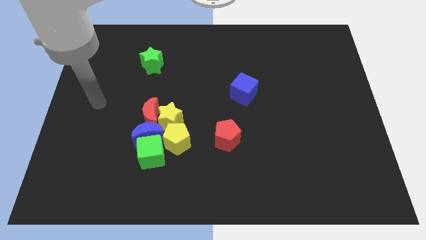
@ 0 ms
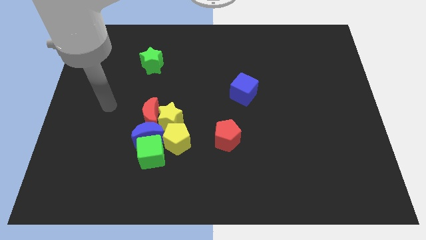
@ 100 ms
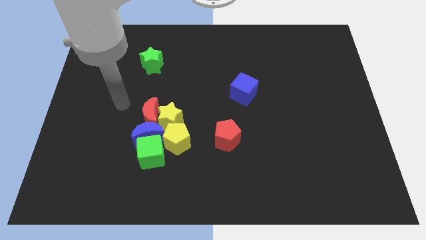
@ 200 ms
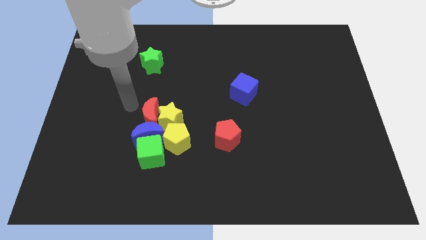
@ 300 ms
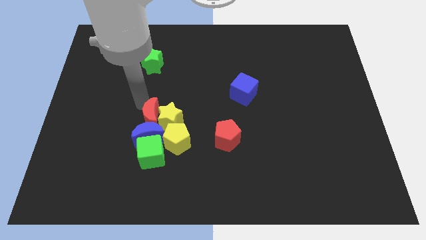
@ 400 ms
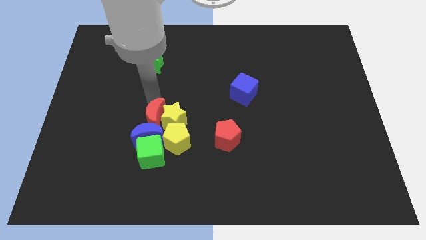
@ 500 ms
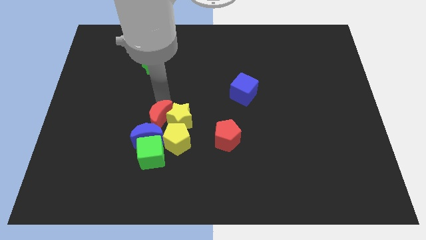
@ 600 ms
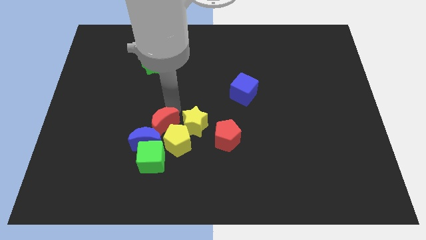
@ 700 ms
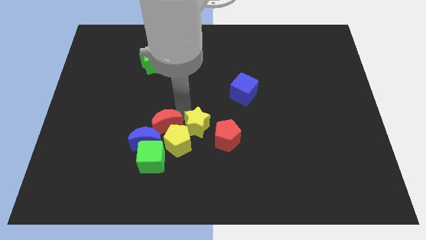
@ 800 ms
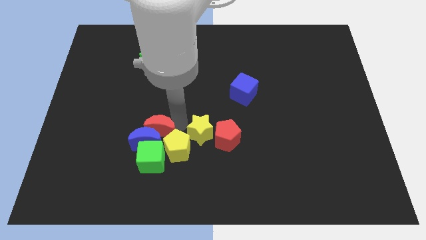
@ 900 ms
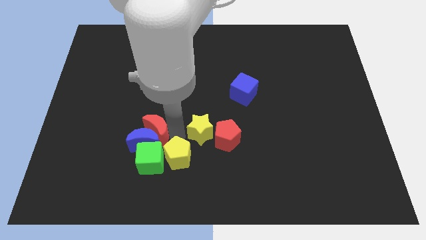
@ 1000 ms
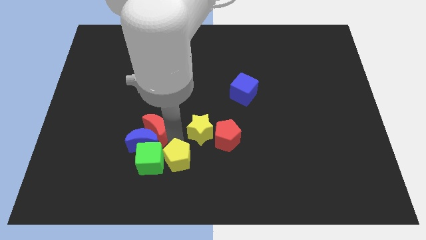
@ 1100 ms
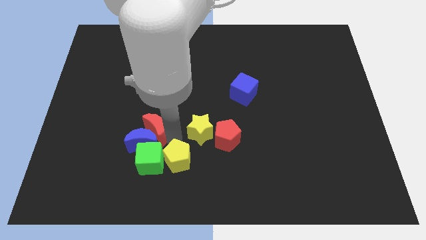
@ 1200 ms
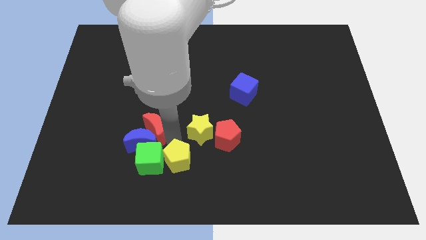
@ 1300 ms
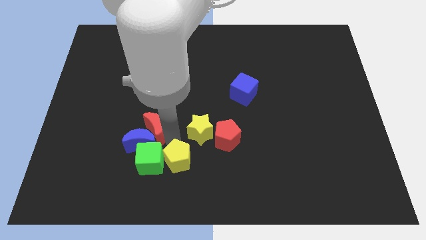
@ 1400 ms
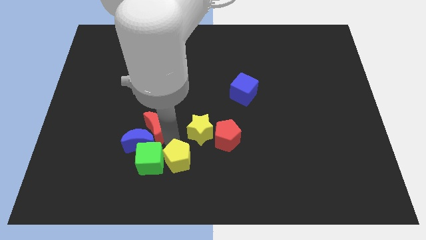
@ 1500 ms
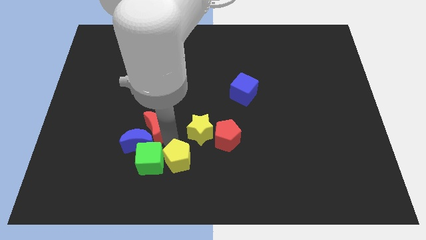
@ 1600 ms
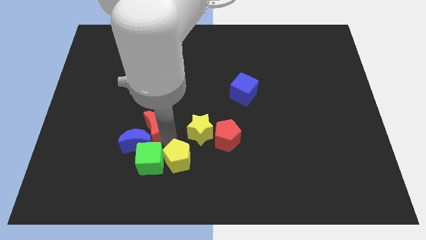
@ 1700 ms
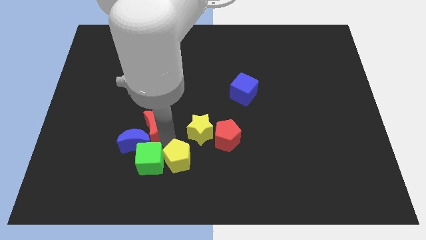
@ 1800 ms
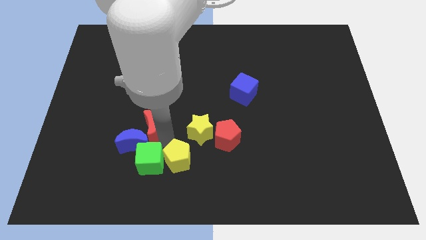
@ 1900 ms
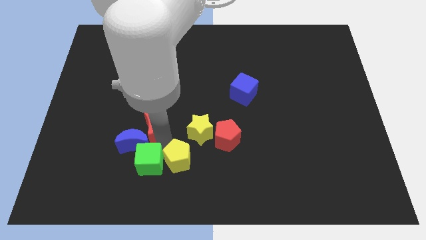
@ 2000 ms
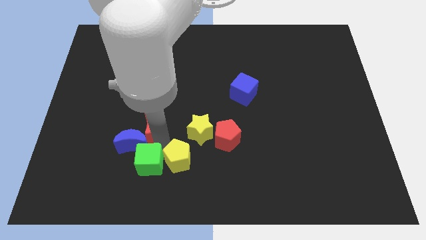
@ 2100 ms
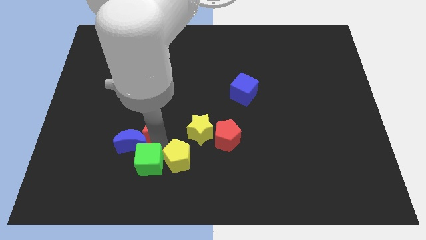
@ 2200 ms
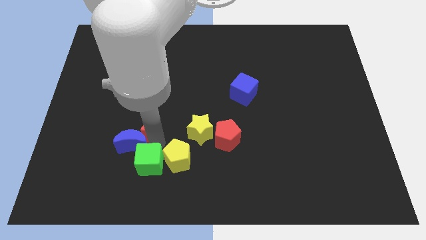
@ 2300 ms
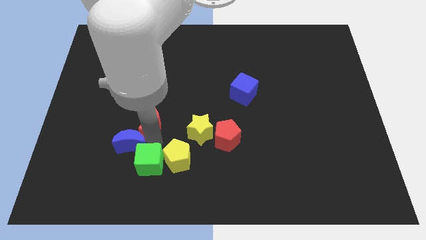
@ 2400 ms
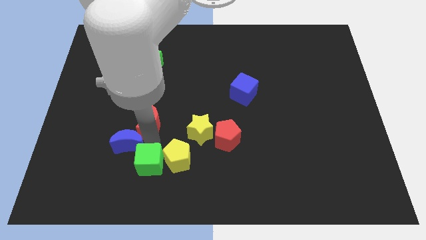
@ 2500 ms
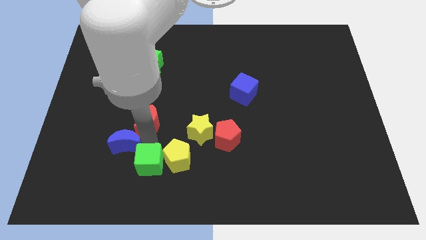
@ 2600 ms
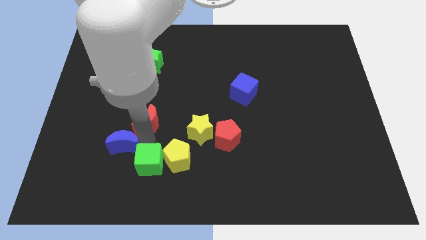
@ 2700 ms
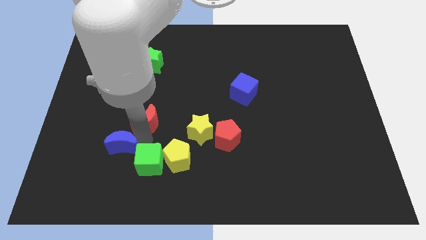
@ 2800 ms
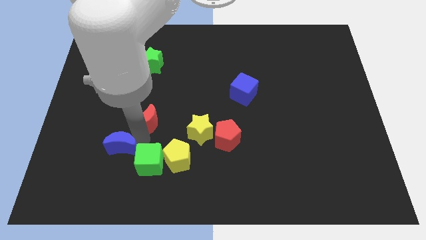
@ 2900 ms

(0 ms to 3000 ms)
pull the blue moon apart from the clump

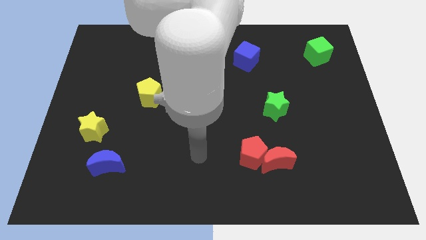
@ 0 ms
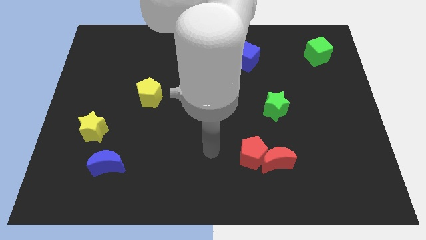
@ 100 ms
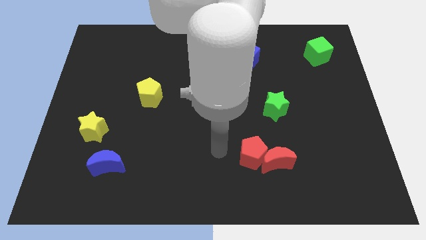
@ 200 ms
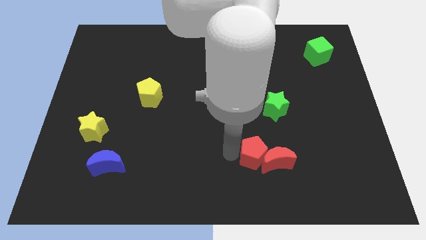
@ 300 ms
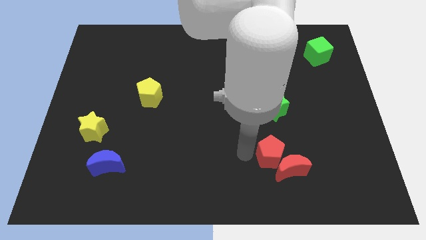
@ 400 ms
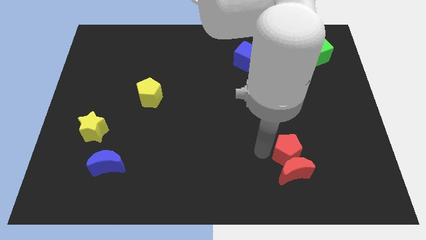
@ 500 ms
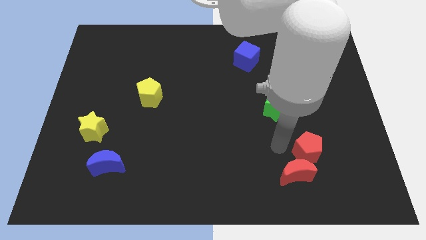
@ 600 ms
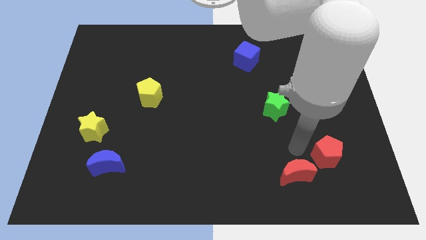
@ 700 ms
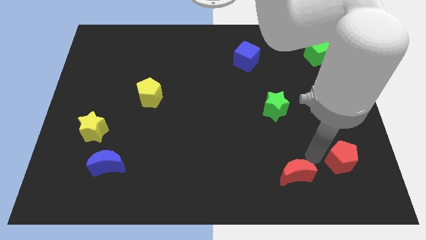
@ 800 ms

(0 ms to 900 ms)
pull the red moon apart from the red pentagon

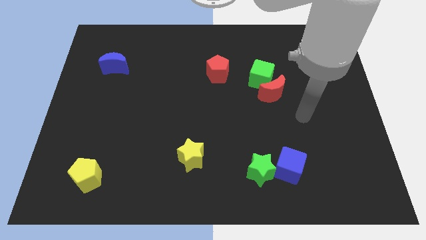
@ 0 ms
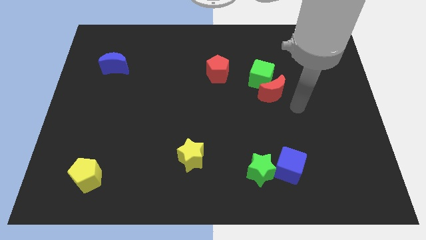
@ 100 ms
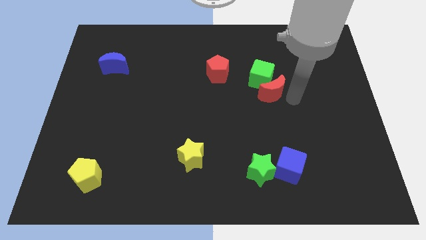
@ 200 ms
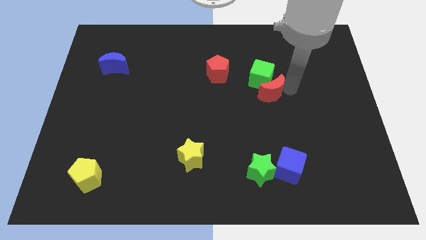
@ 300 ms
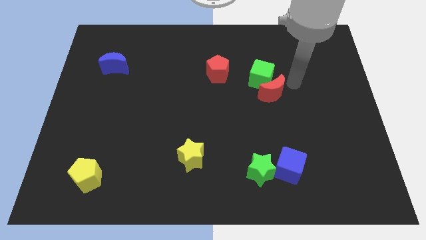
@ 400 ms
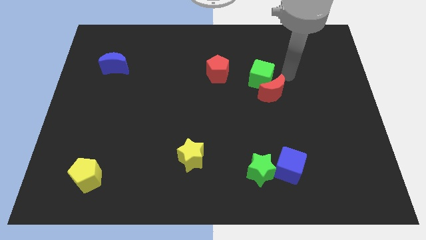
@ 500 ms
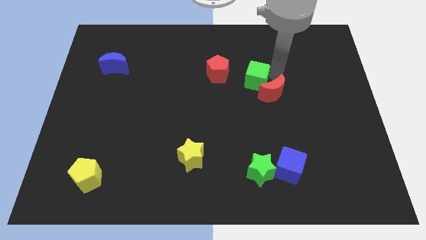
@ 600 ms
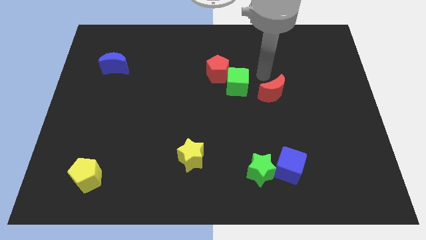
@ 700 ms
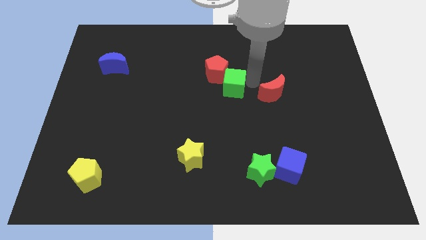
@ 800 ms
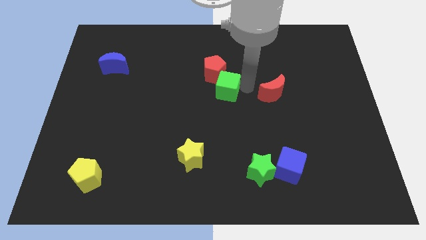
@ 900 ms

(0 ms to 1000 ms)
move the red moon away from the green cube

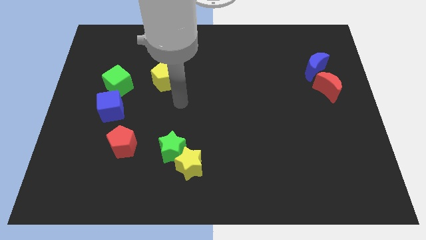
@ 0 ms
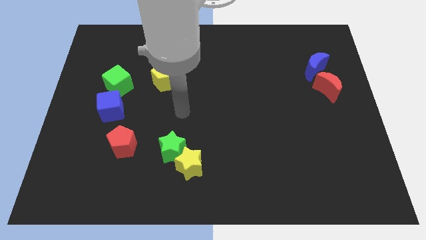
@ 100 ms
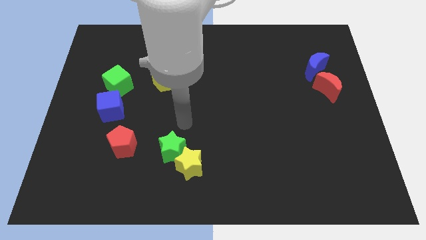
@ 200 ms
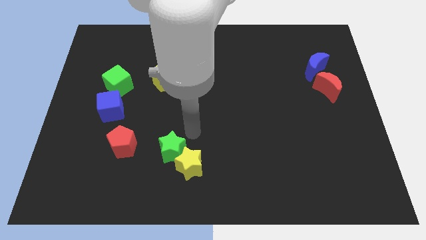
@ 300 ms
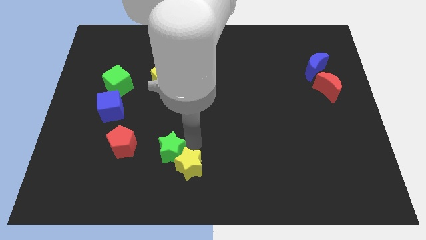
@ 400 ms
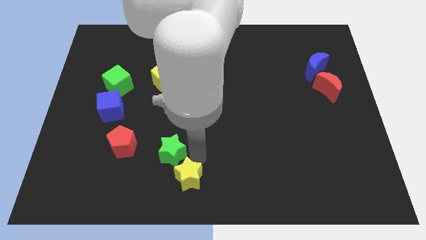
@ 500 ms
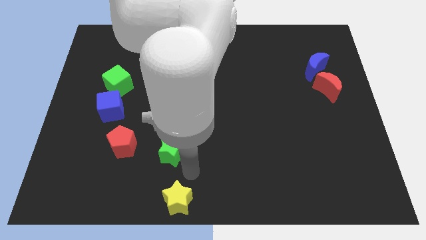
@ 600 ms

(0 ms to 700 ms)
separate the green star from the yellow star

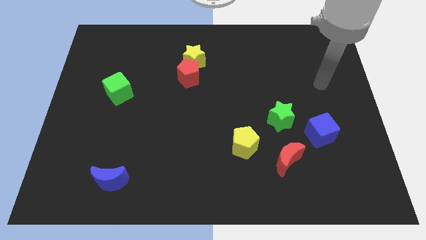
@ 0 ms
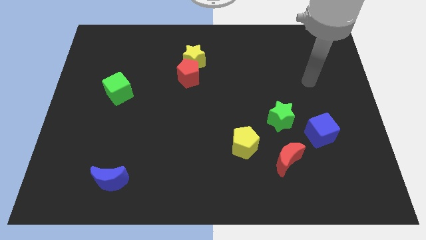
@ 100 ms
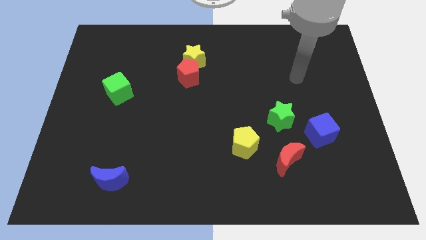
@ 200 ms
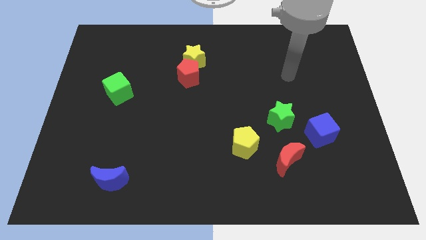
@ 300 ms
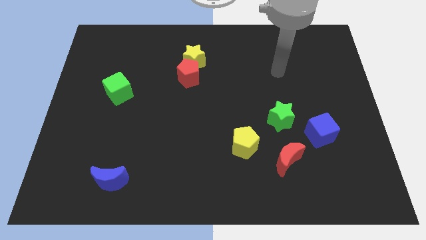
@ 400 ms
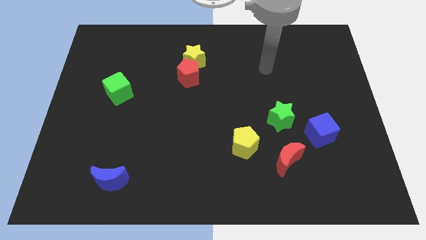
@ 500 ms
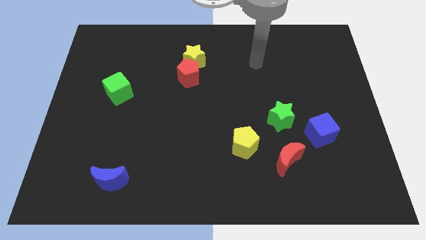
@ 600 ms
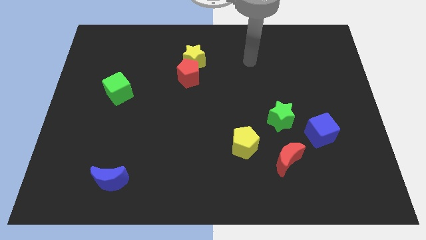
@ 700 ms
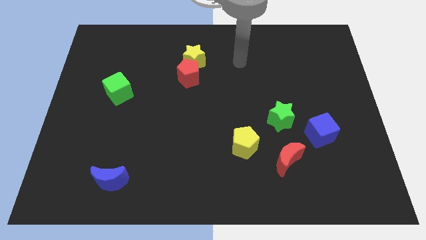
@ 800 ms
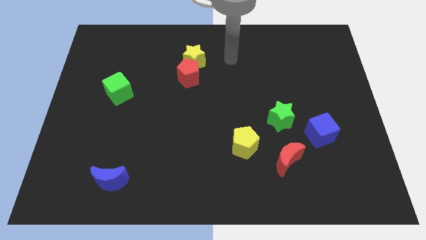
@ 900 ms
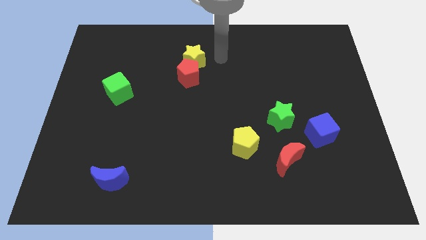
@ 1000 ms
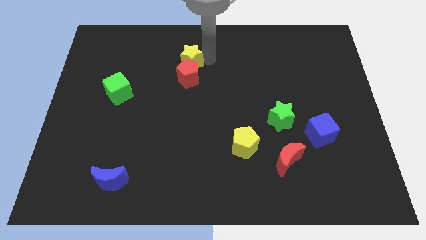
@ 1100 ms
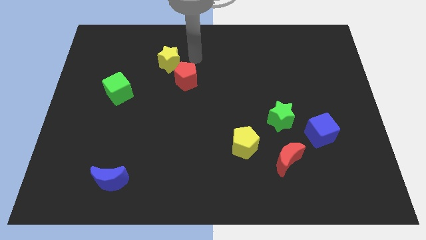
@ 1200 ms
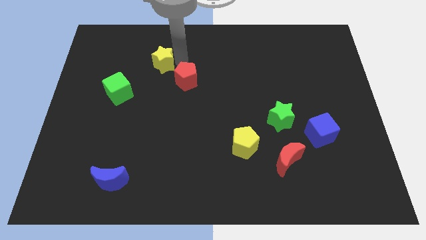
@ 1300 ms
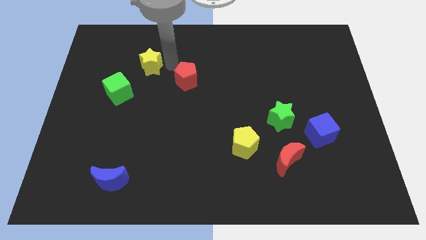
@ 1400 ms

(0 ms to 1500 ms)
pull the red pentagon apart from the yellow star

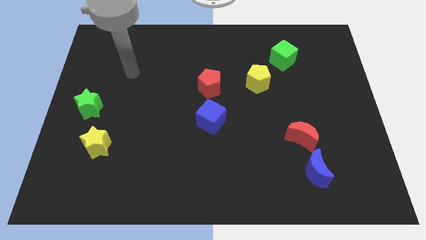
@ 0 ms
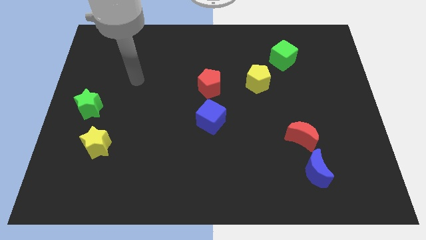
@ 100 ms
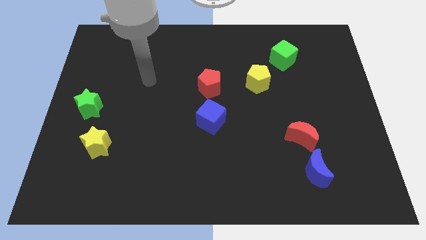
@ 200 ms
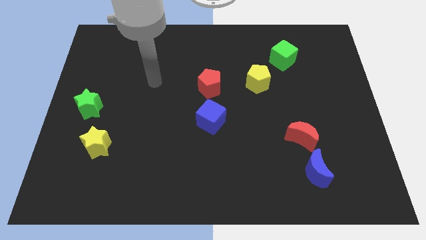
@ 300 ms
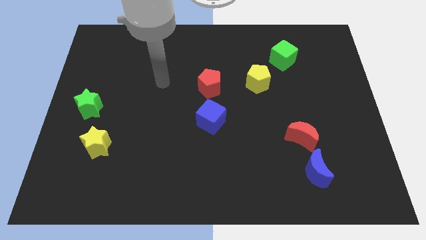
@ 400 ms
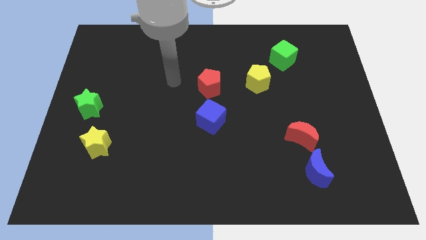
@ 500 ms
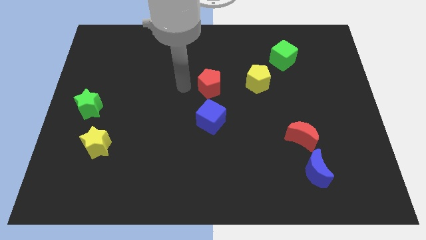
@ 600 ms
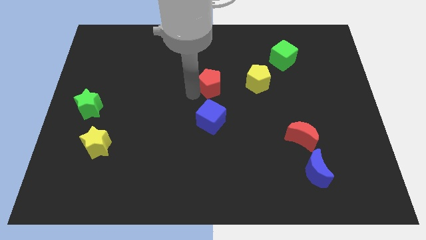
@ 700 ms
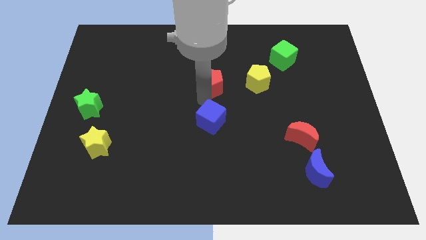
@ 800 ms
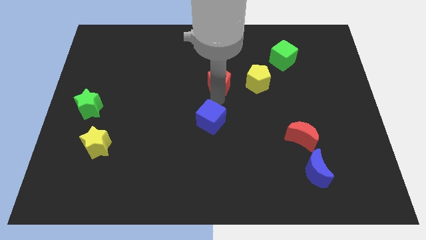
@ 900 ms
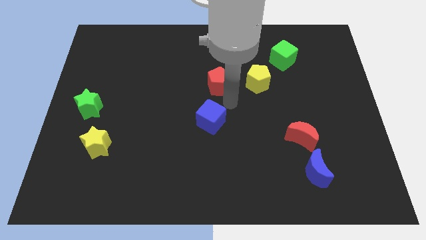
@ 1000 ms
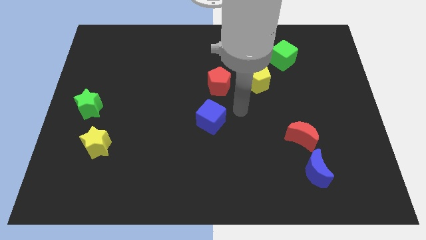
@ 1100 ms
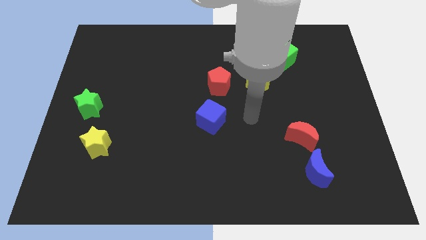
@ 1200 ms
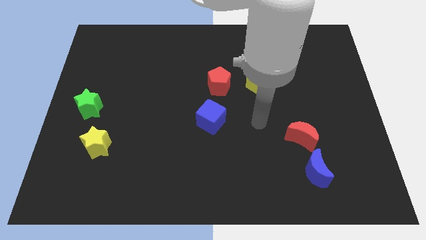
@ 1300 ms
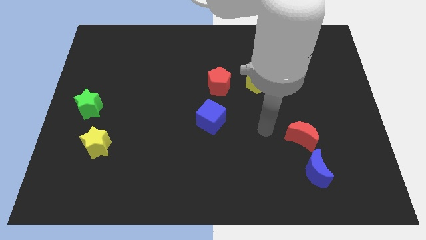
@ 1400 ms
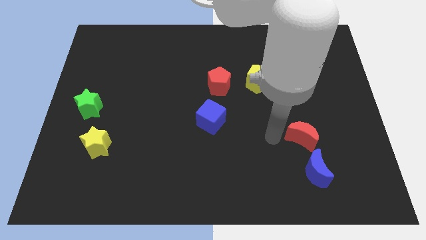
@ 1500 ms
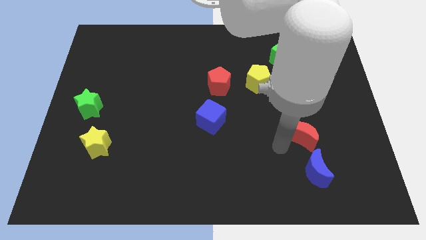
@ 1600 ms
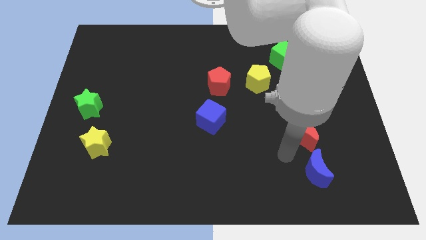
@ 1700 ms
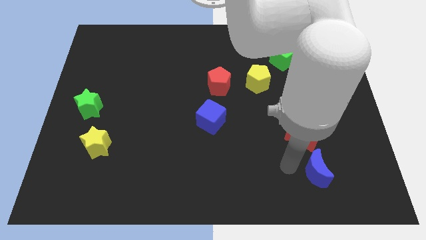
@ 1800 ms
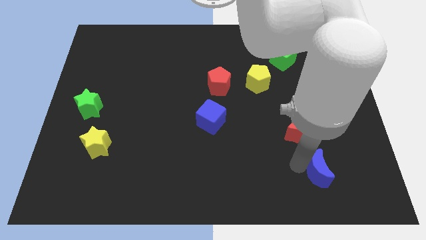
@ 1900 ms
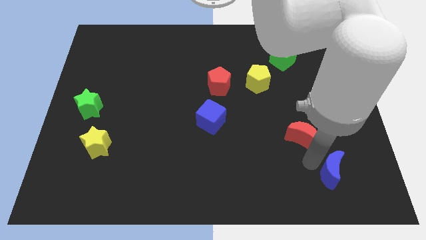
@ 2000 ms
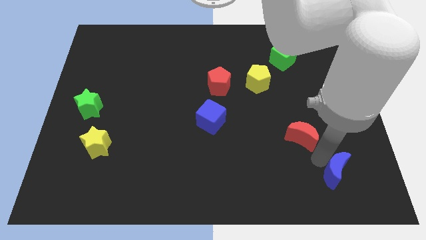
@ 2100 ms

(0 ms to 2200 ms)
move the red moon away from the blue moon
